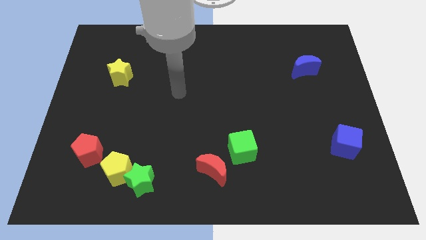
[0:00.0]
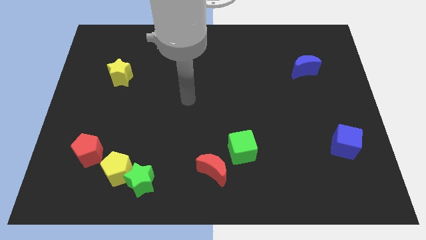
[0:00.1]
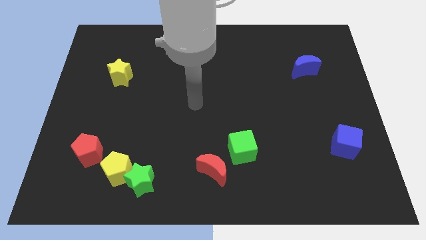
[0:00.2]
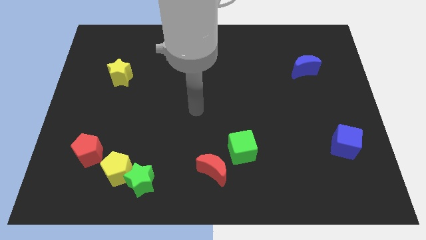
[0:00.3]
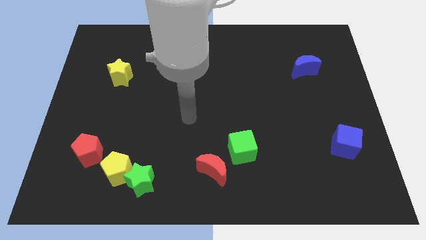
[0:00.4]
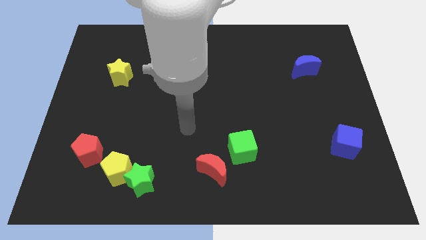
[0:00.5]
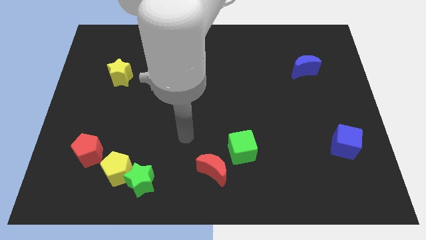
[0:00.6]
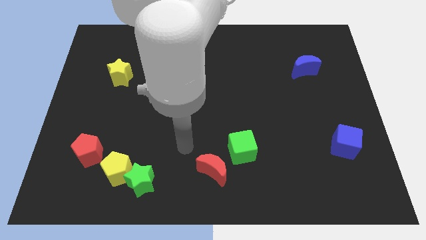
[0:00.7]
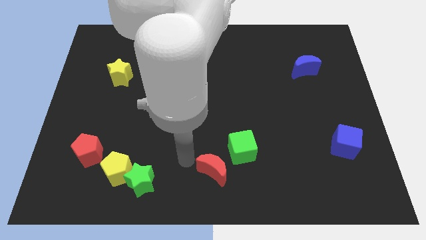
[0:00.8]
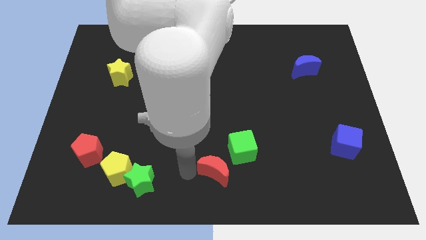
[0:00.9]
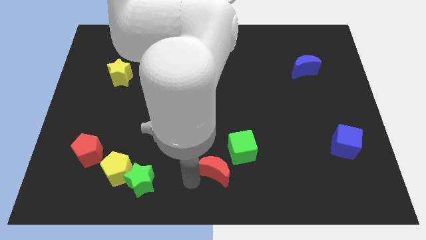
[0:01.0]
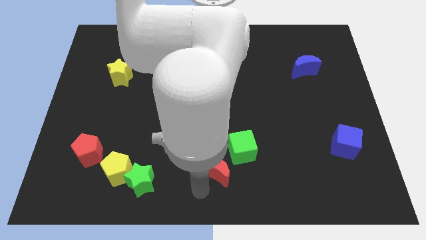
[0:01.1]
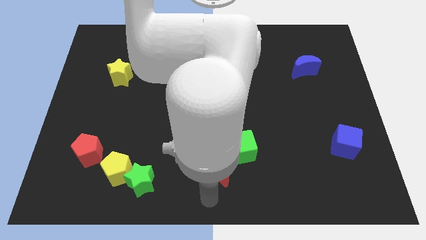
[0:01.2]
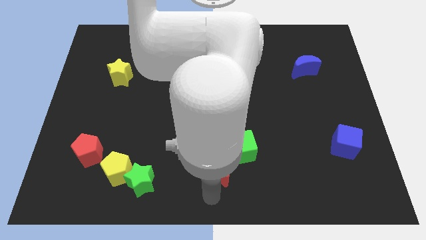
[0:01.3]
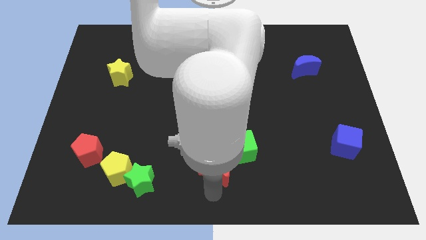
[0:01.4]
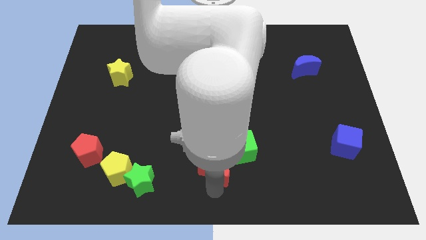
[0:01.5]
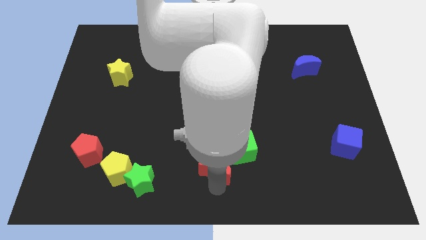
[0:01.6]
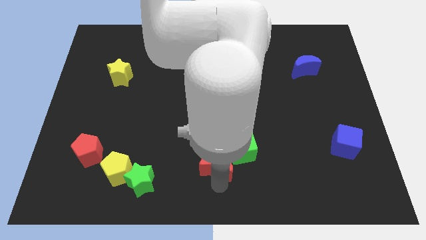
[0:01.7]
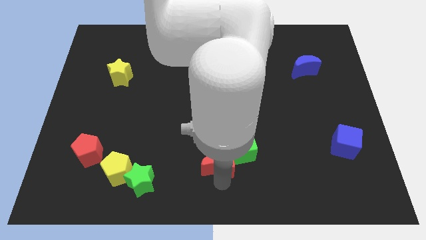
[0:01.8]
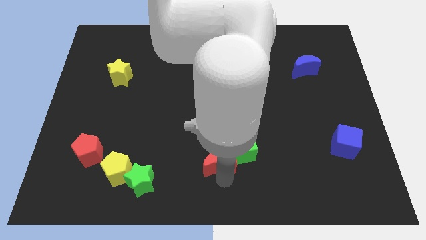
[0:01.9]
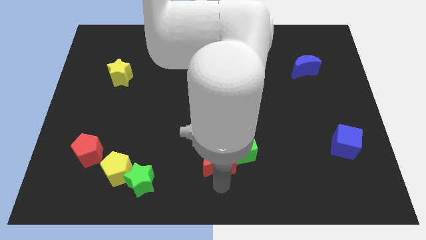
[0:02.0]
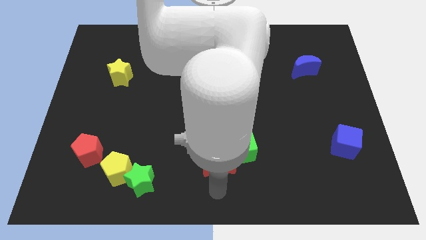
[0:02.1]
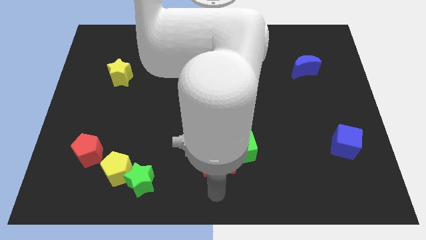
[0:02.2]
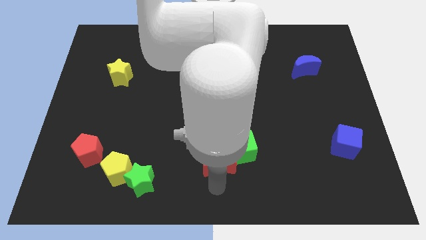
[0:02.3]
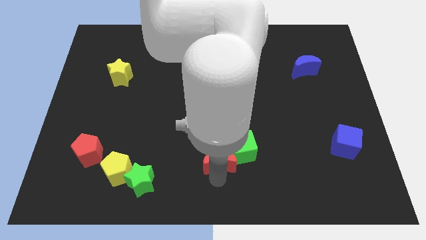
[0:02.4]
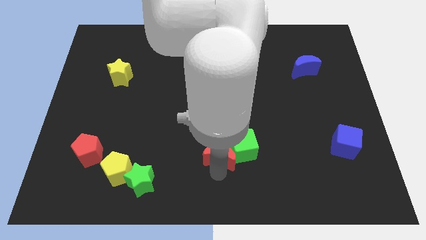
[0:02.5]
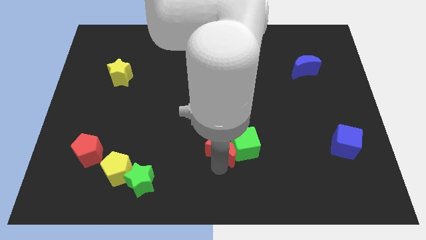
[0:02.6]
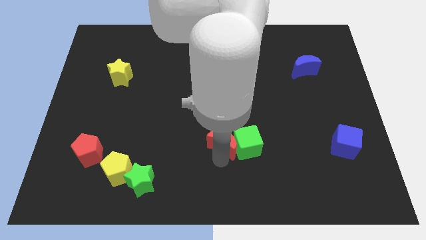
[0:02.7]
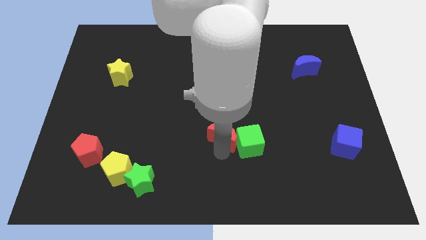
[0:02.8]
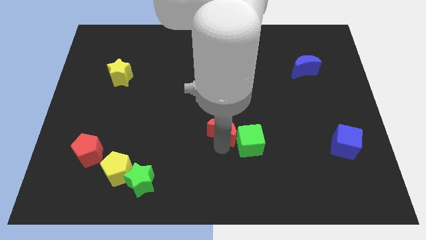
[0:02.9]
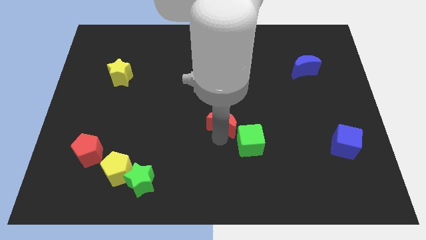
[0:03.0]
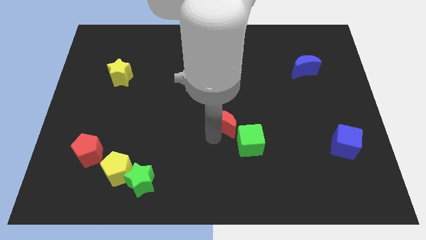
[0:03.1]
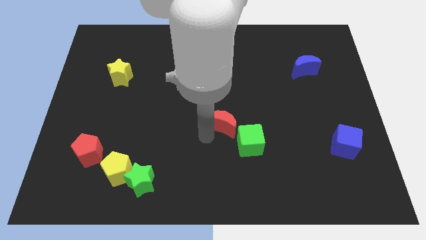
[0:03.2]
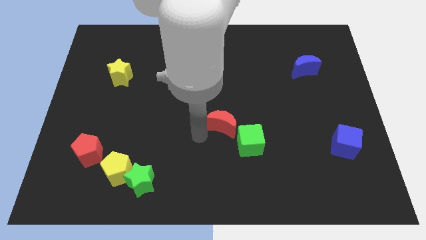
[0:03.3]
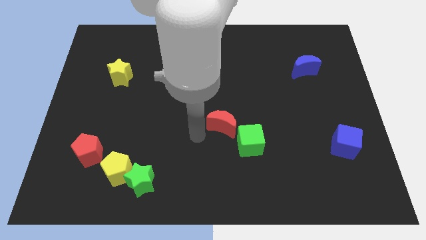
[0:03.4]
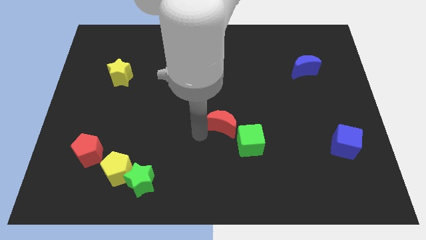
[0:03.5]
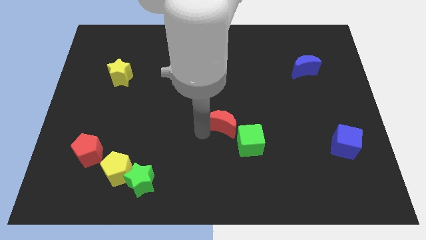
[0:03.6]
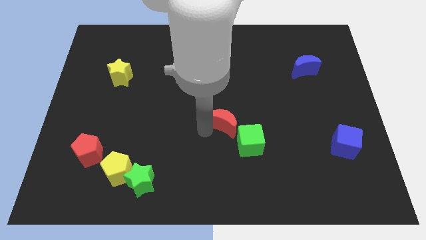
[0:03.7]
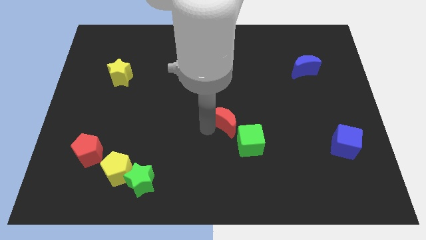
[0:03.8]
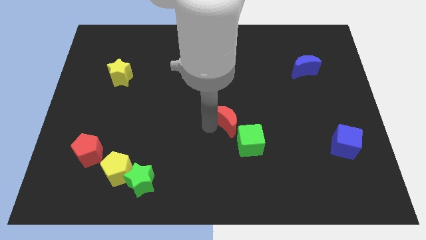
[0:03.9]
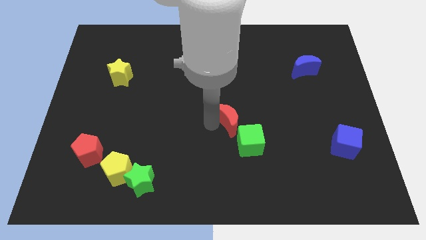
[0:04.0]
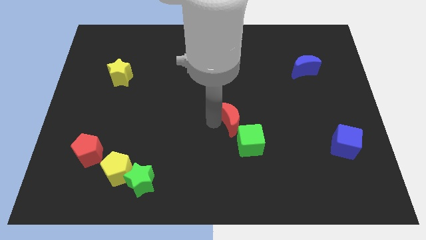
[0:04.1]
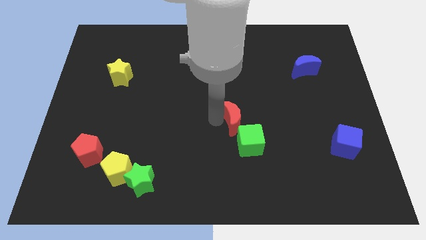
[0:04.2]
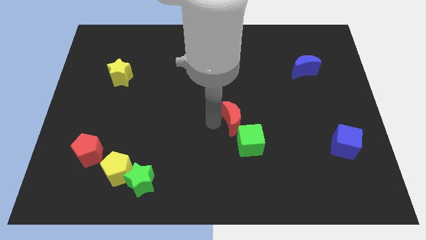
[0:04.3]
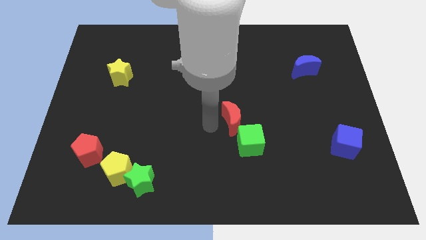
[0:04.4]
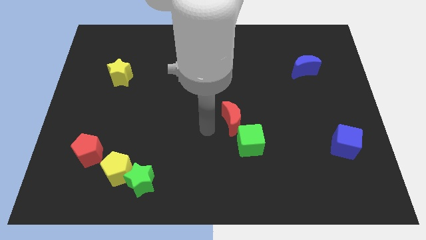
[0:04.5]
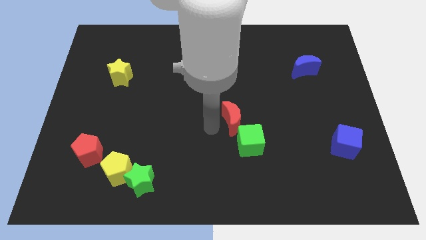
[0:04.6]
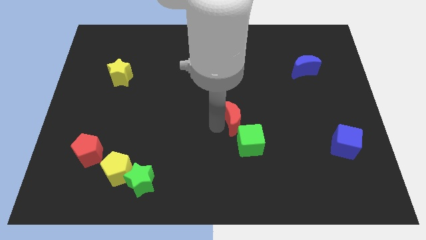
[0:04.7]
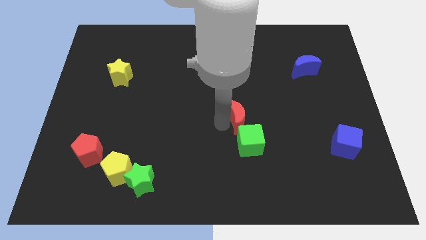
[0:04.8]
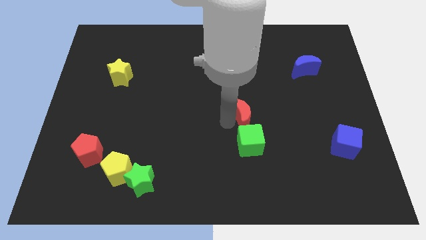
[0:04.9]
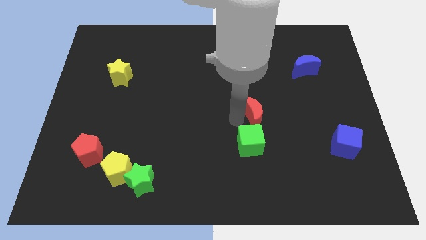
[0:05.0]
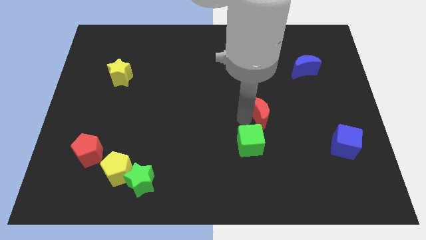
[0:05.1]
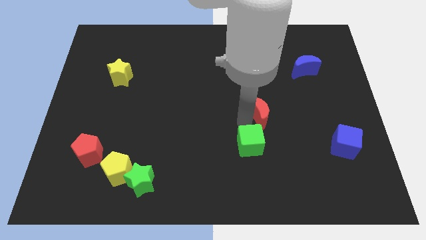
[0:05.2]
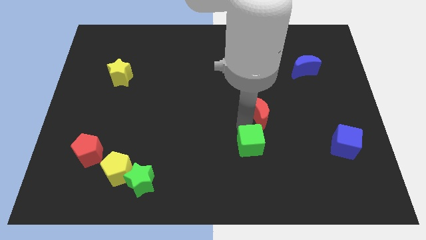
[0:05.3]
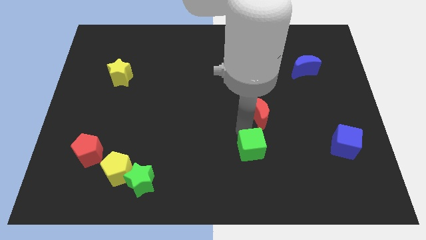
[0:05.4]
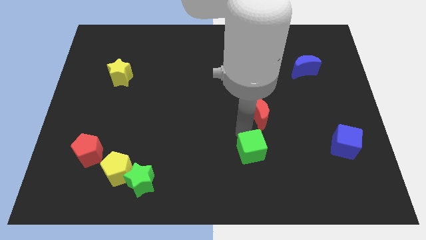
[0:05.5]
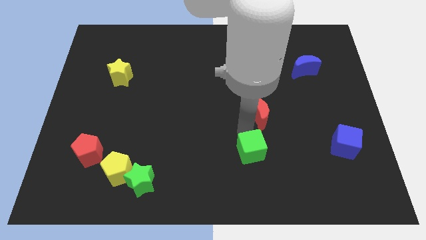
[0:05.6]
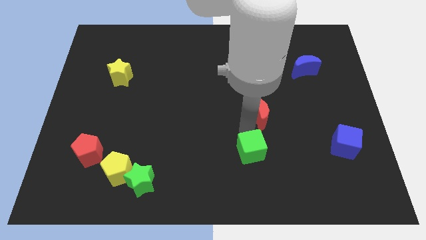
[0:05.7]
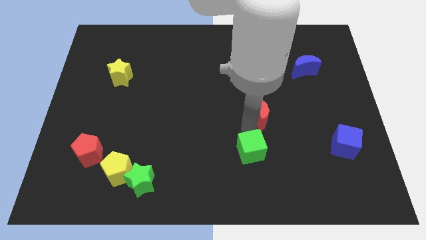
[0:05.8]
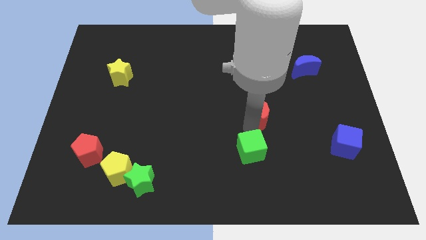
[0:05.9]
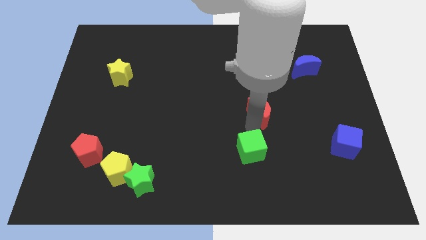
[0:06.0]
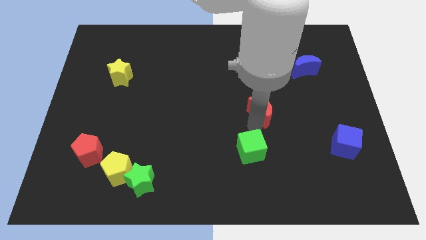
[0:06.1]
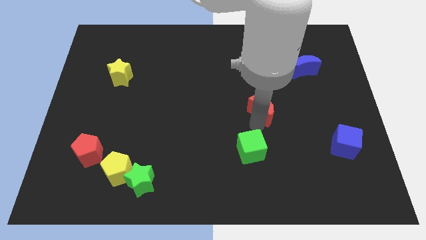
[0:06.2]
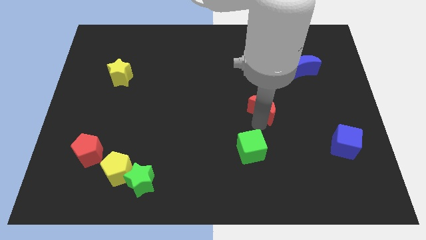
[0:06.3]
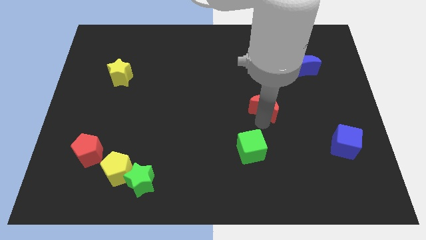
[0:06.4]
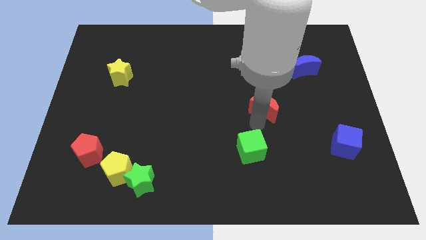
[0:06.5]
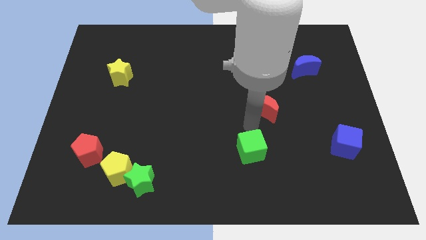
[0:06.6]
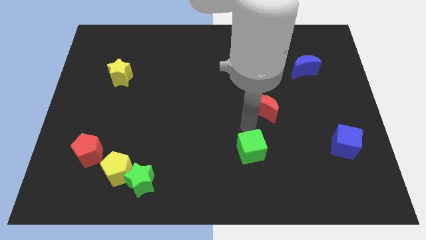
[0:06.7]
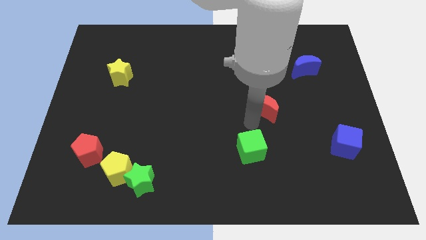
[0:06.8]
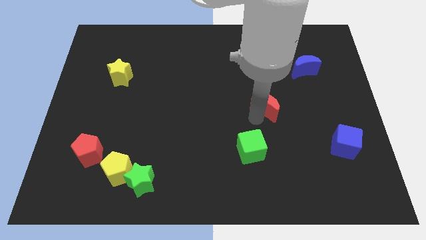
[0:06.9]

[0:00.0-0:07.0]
move the red moon up and then to the right

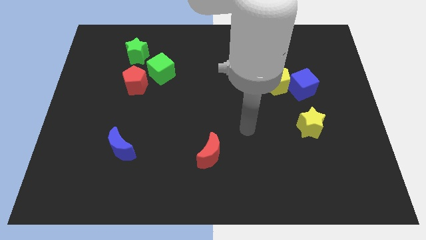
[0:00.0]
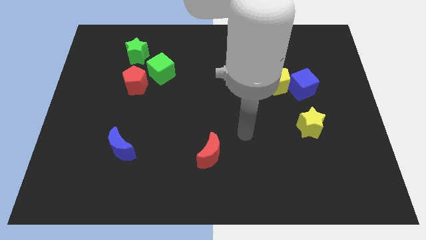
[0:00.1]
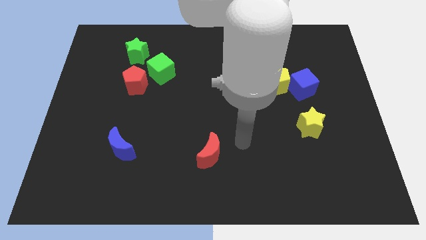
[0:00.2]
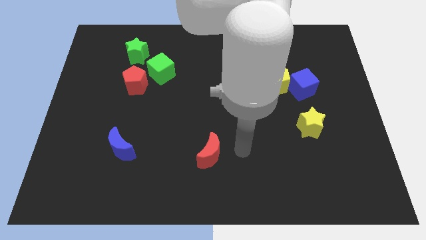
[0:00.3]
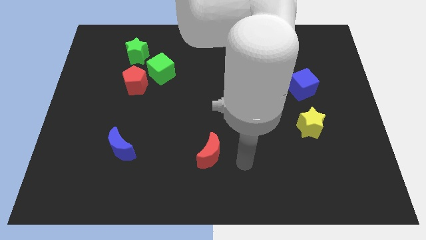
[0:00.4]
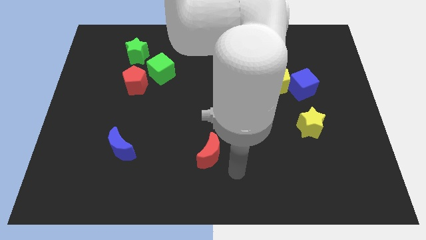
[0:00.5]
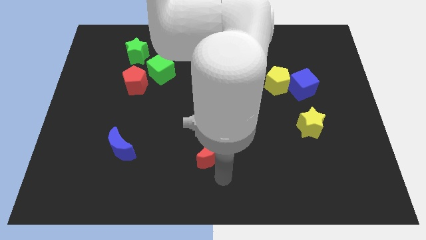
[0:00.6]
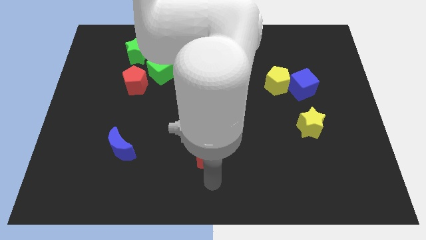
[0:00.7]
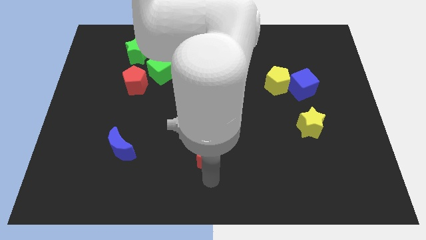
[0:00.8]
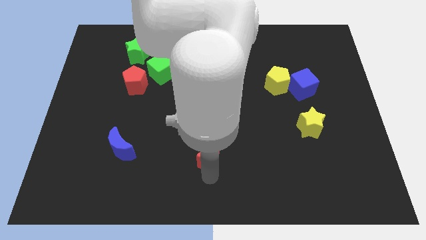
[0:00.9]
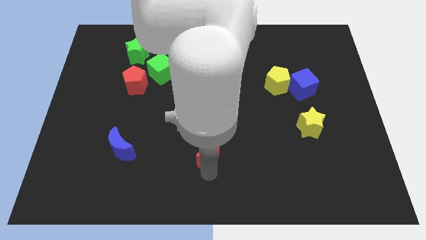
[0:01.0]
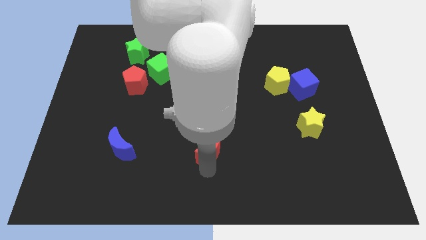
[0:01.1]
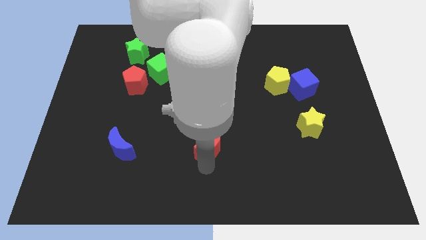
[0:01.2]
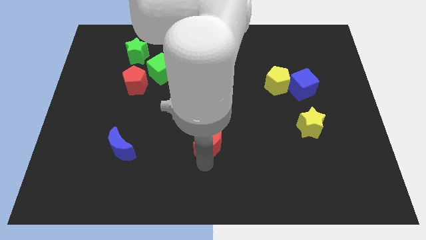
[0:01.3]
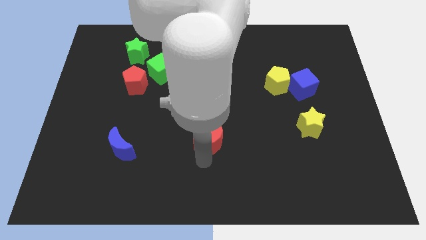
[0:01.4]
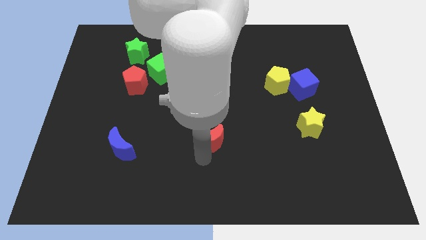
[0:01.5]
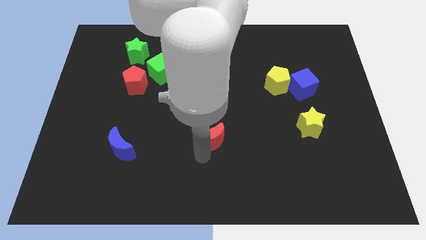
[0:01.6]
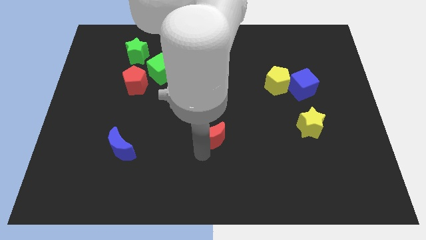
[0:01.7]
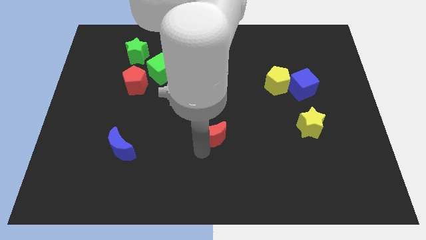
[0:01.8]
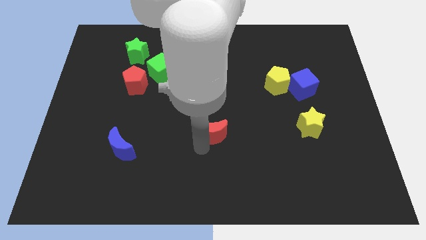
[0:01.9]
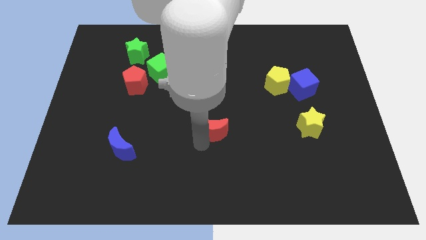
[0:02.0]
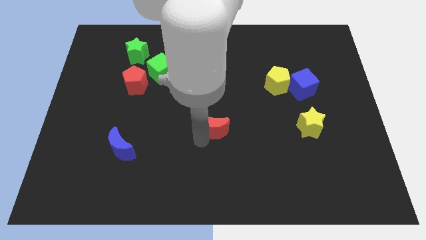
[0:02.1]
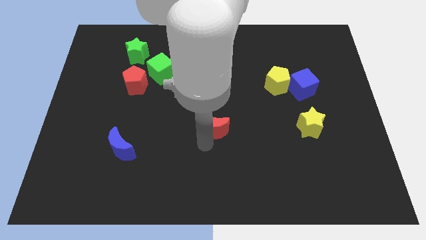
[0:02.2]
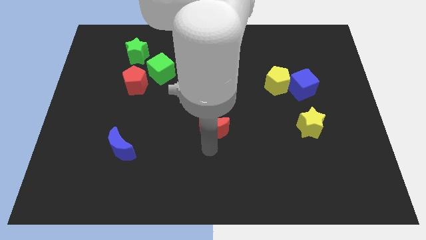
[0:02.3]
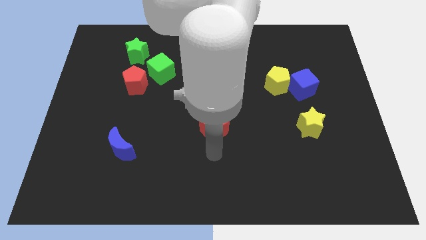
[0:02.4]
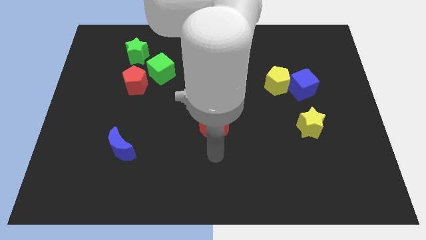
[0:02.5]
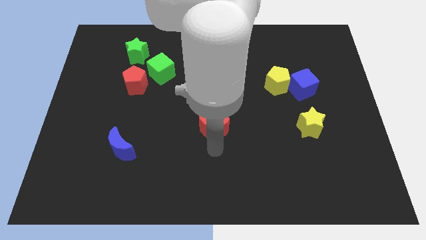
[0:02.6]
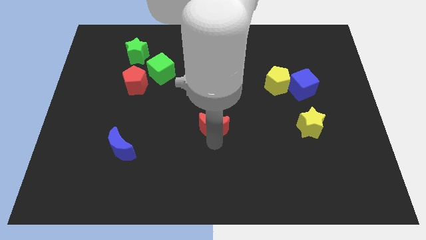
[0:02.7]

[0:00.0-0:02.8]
slightly move the red moon upwards
